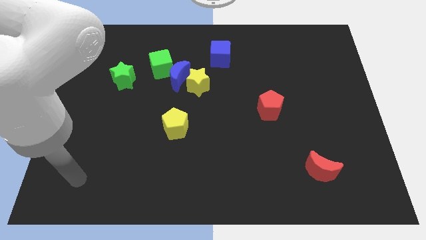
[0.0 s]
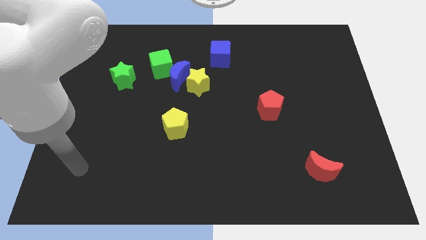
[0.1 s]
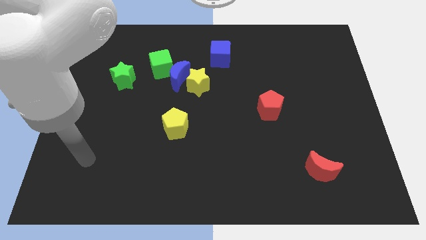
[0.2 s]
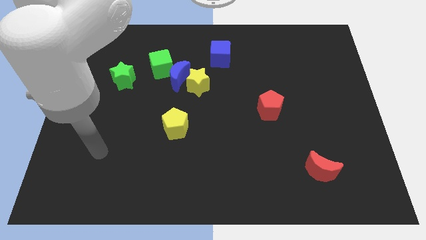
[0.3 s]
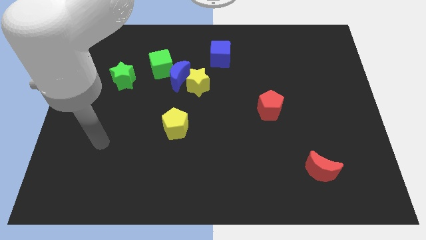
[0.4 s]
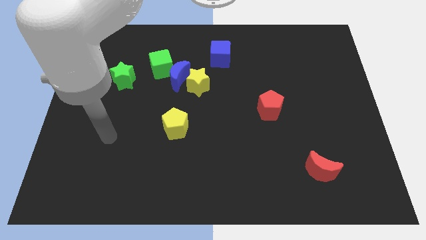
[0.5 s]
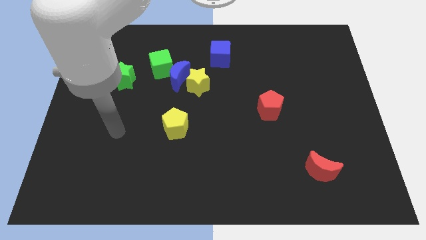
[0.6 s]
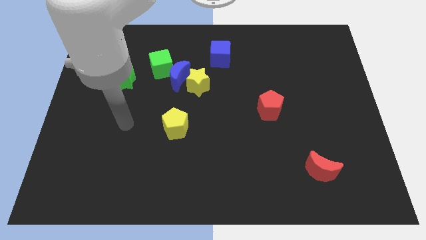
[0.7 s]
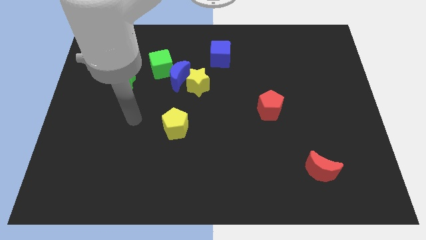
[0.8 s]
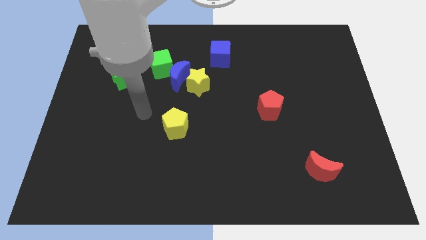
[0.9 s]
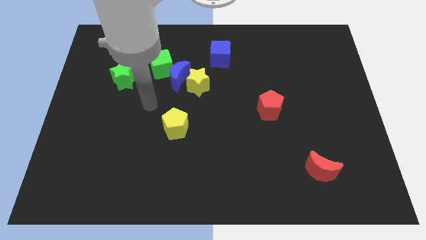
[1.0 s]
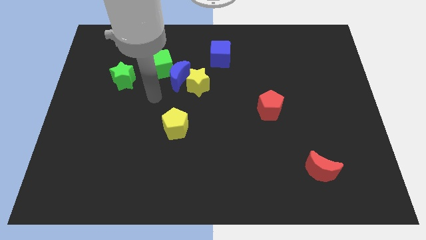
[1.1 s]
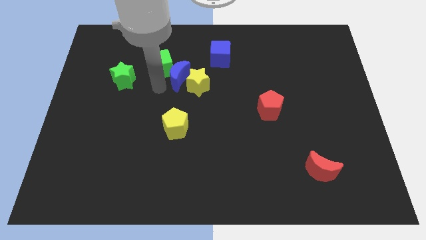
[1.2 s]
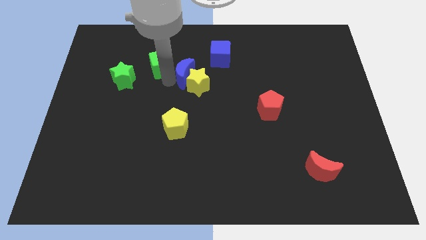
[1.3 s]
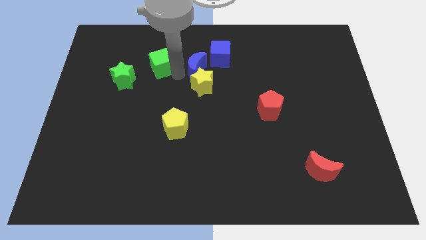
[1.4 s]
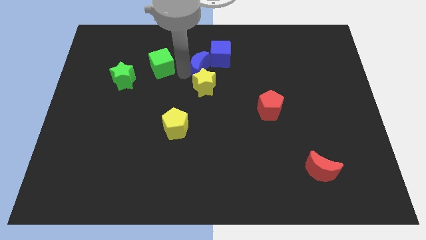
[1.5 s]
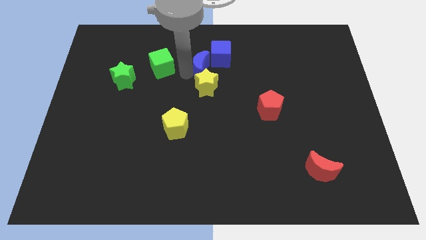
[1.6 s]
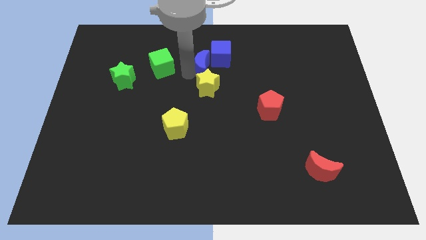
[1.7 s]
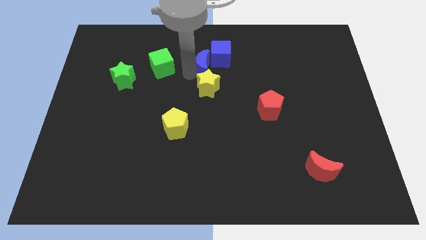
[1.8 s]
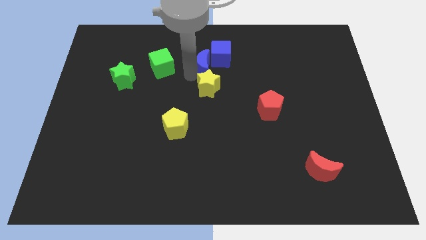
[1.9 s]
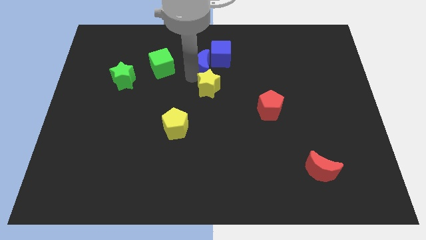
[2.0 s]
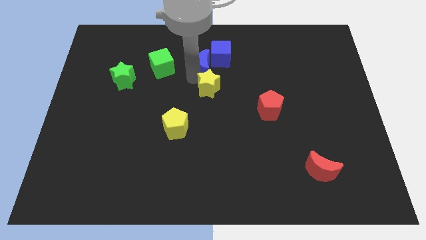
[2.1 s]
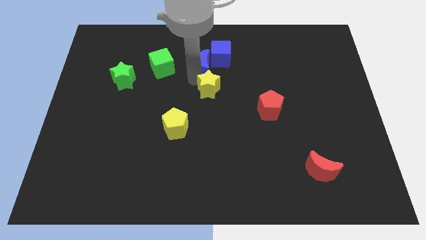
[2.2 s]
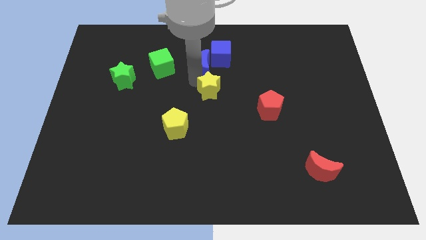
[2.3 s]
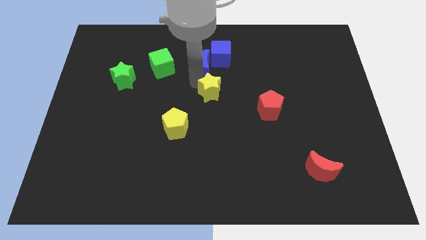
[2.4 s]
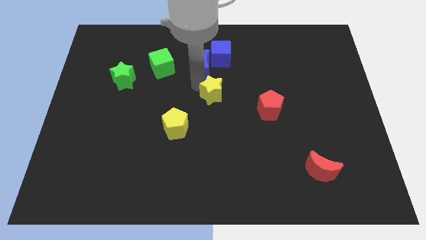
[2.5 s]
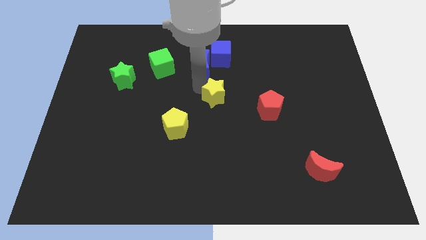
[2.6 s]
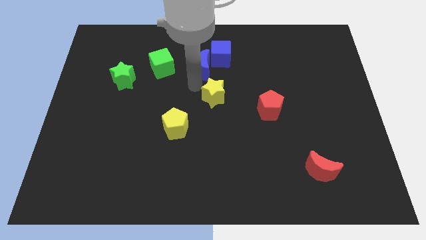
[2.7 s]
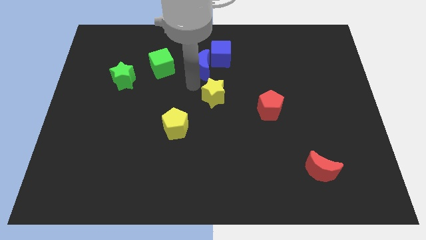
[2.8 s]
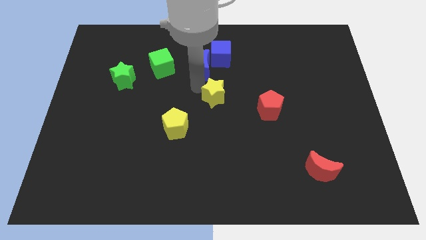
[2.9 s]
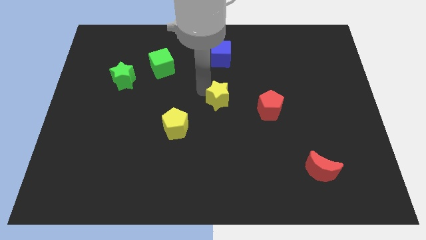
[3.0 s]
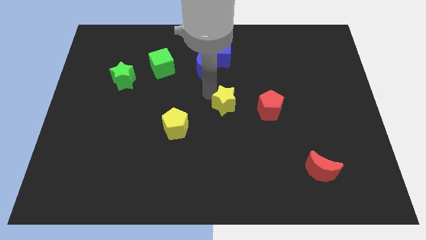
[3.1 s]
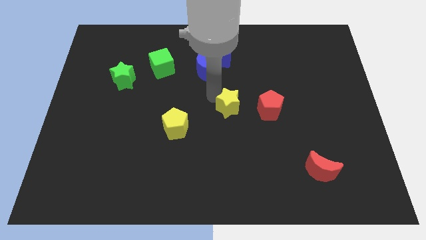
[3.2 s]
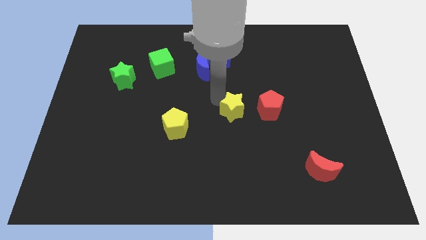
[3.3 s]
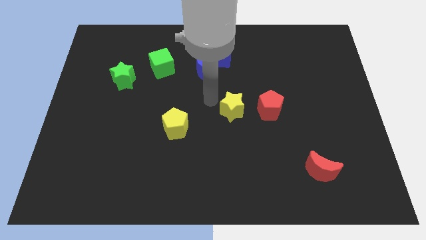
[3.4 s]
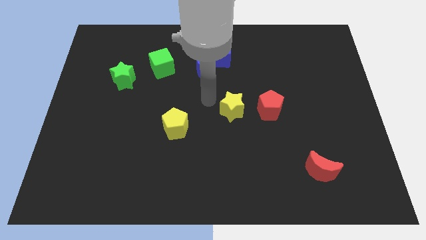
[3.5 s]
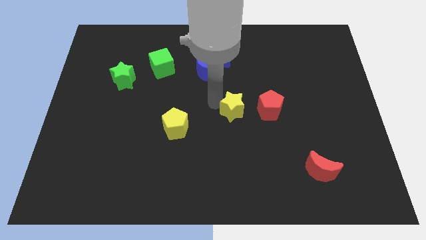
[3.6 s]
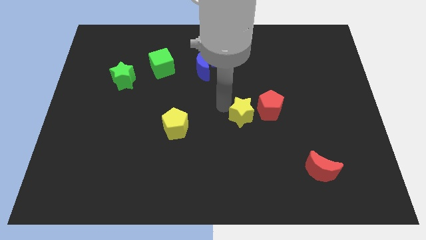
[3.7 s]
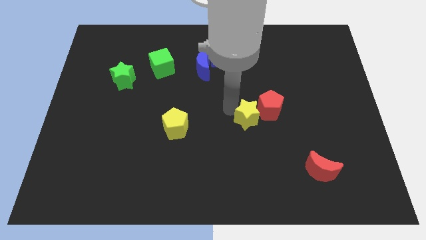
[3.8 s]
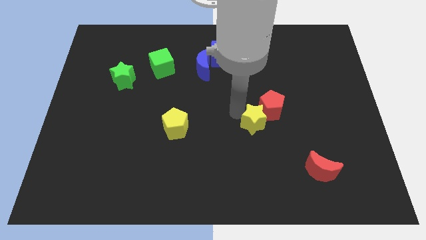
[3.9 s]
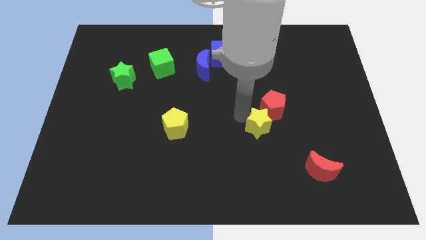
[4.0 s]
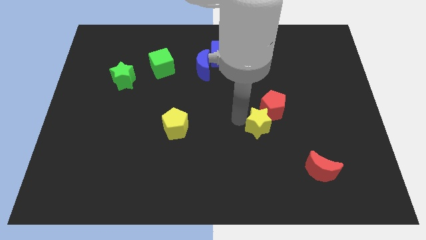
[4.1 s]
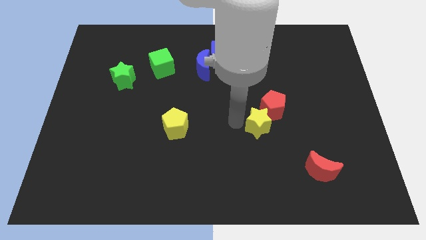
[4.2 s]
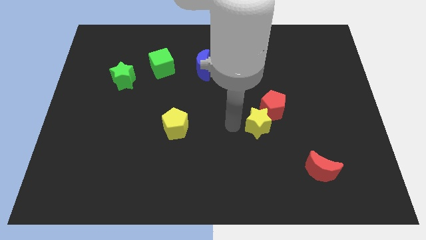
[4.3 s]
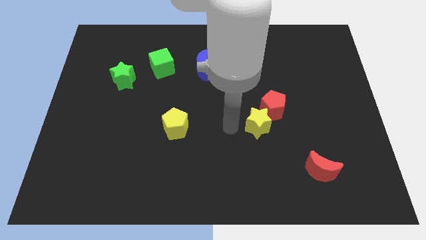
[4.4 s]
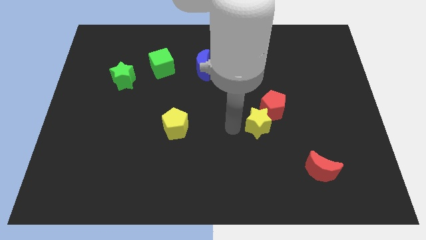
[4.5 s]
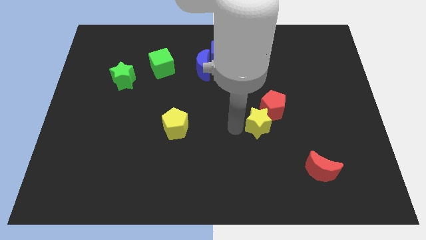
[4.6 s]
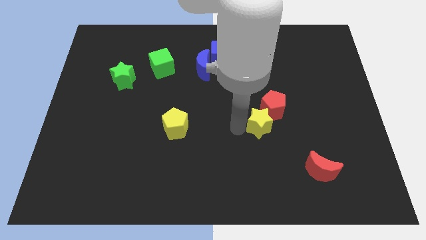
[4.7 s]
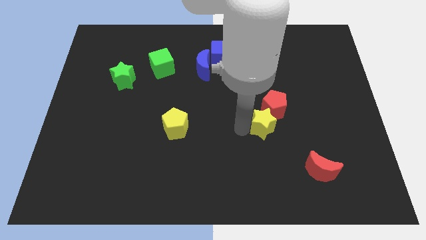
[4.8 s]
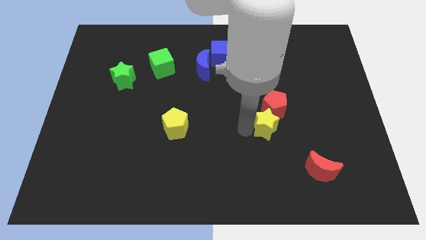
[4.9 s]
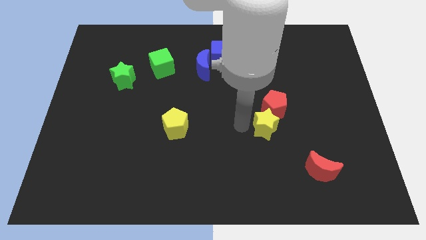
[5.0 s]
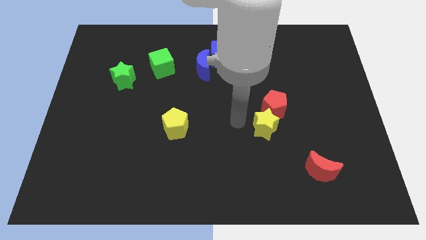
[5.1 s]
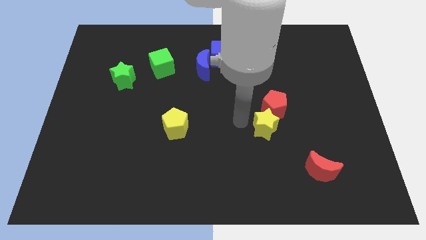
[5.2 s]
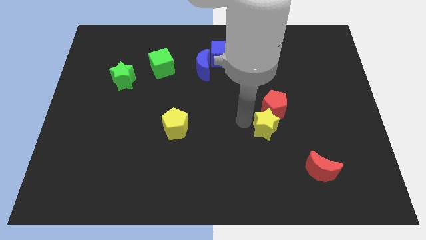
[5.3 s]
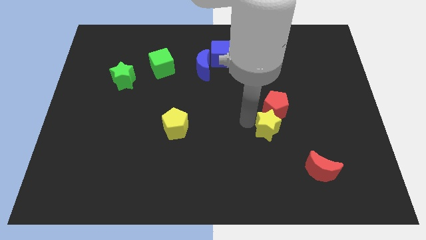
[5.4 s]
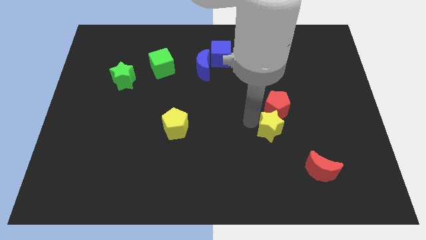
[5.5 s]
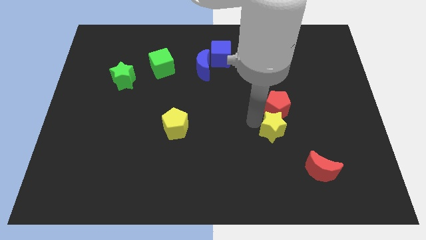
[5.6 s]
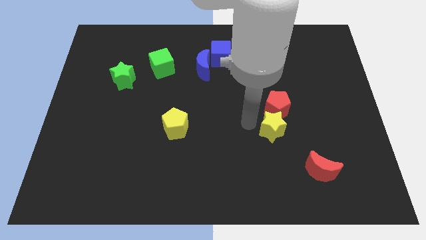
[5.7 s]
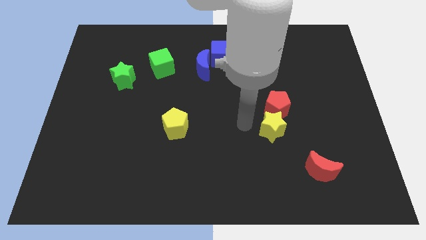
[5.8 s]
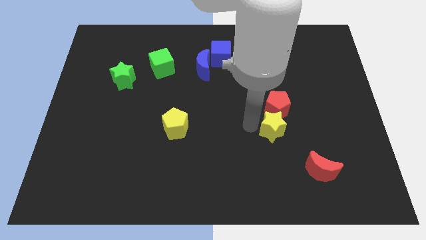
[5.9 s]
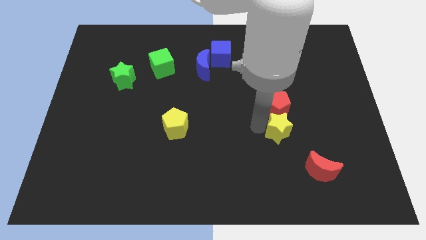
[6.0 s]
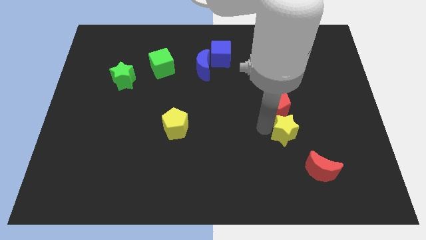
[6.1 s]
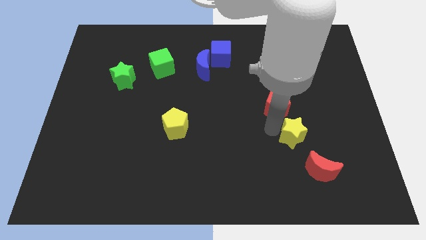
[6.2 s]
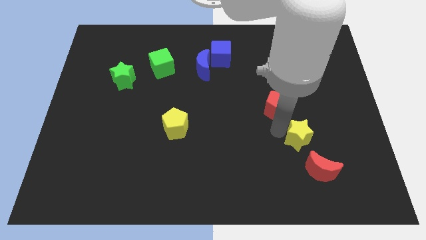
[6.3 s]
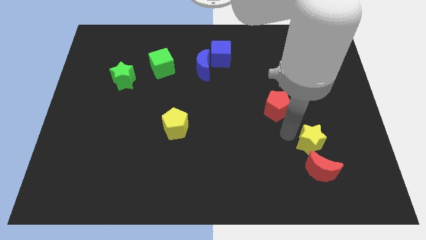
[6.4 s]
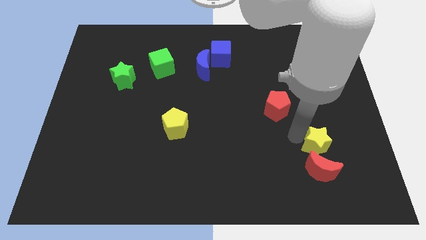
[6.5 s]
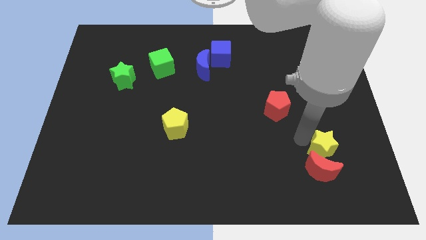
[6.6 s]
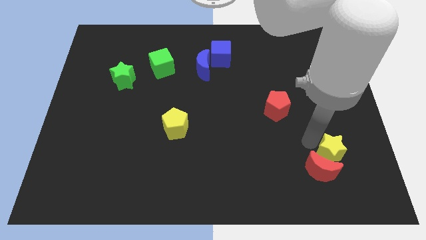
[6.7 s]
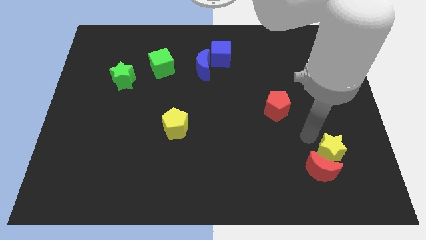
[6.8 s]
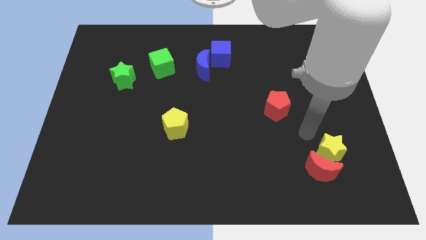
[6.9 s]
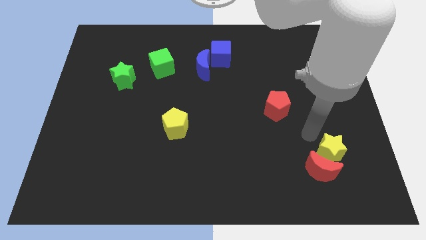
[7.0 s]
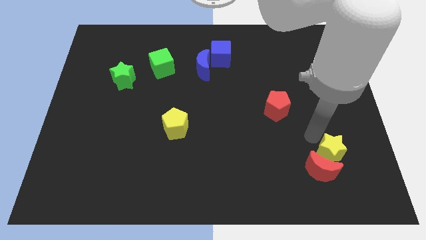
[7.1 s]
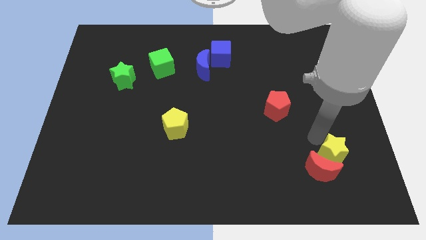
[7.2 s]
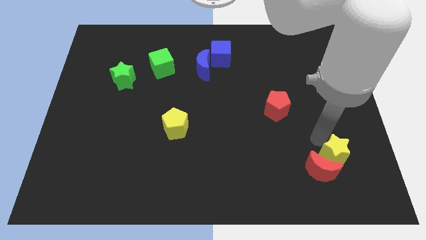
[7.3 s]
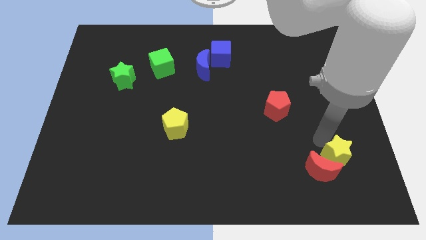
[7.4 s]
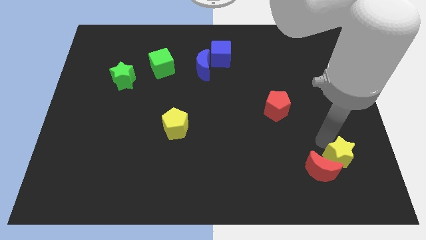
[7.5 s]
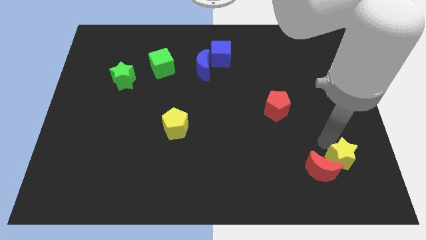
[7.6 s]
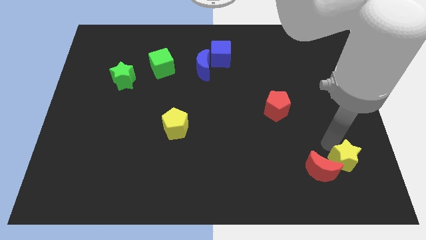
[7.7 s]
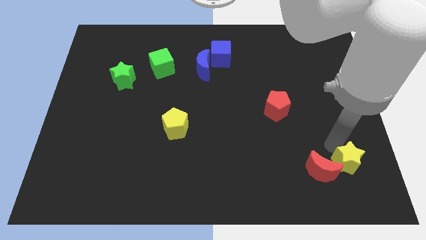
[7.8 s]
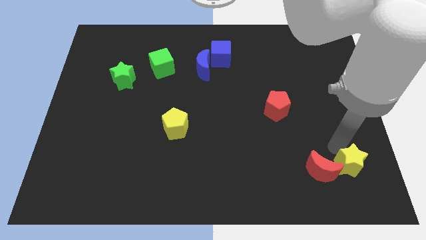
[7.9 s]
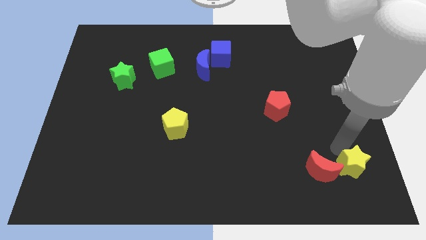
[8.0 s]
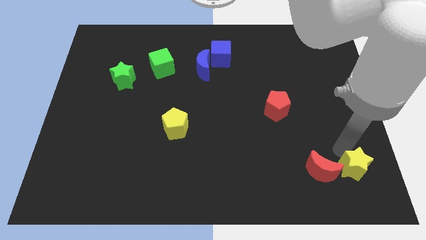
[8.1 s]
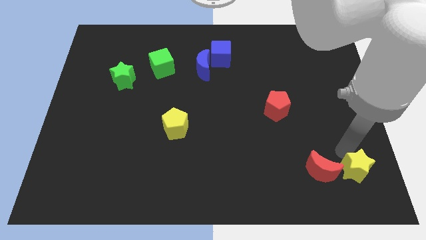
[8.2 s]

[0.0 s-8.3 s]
move the yellow star to the bottom right corner
